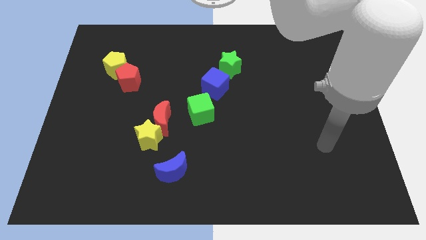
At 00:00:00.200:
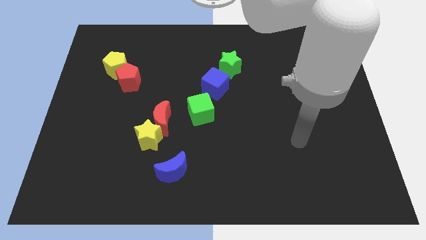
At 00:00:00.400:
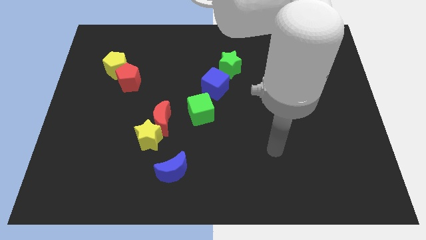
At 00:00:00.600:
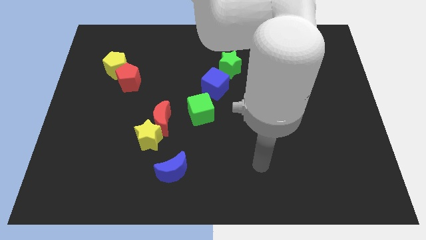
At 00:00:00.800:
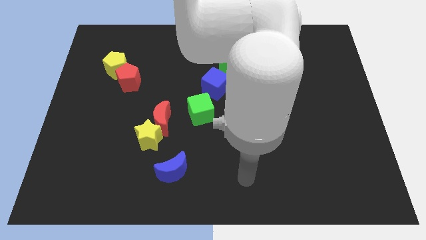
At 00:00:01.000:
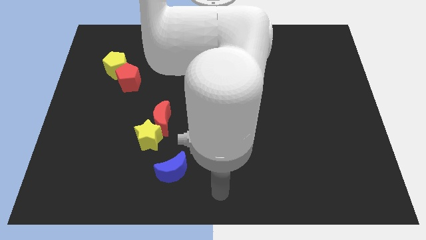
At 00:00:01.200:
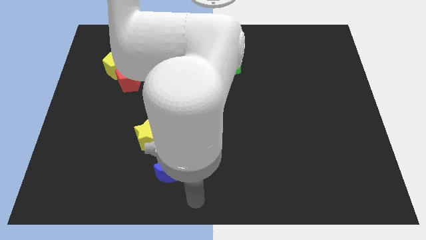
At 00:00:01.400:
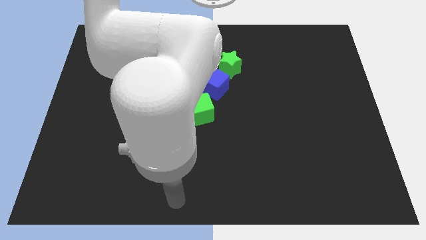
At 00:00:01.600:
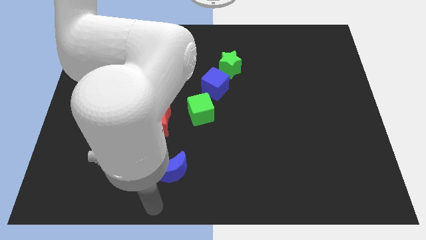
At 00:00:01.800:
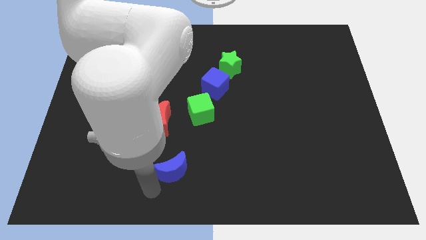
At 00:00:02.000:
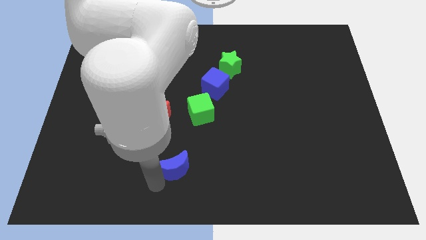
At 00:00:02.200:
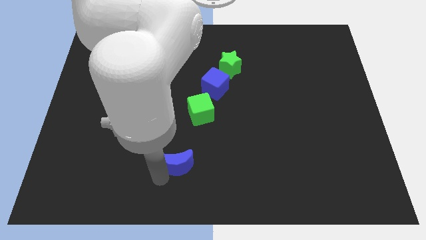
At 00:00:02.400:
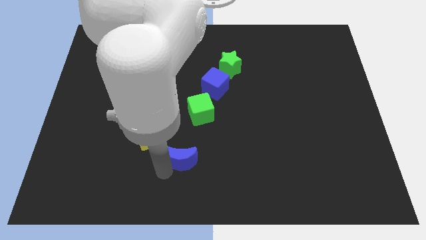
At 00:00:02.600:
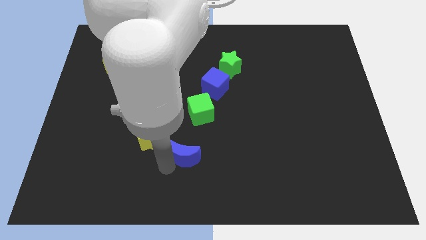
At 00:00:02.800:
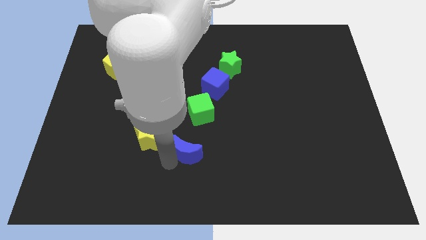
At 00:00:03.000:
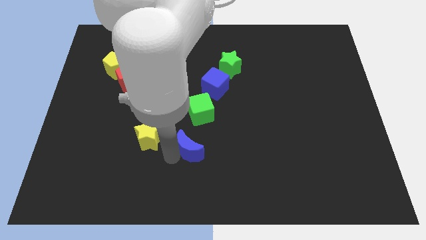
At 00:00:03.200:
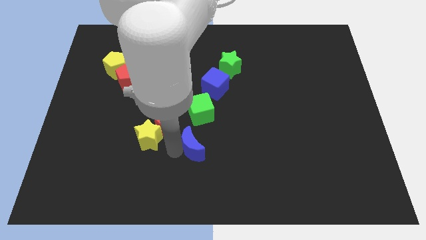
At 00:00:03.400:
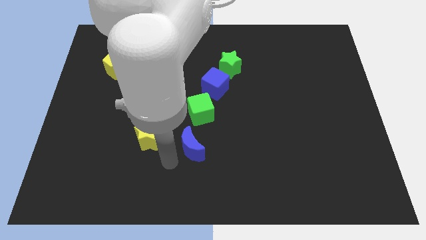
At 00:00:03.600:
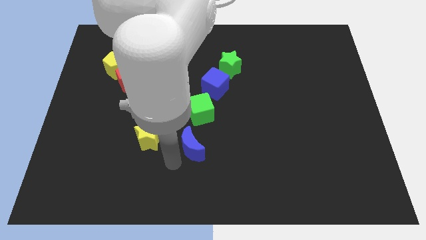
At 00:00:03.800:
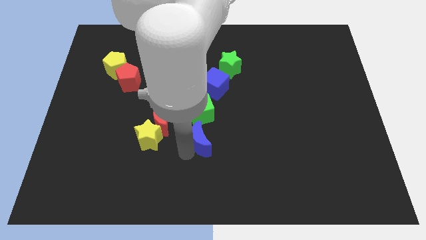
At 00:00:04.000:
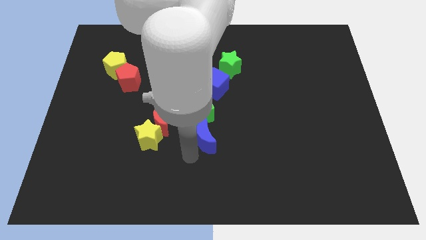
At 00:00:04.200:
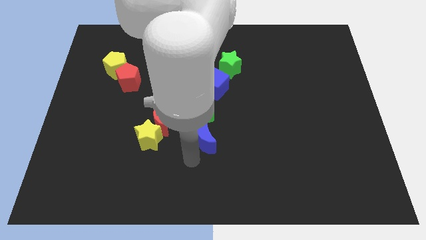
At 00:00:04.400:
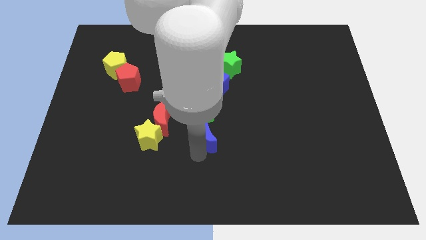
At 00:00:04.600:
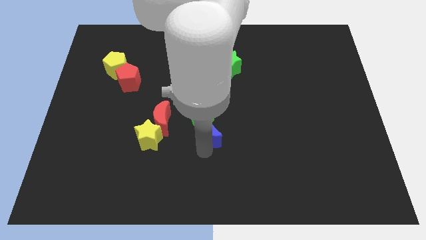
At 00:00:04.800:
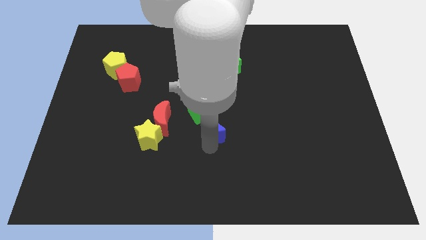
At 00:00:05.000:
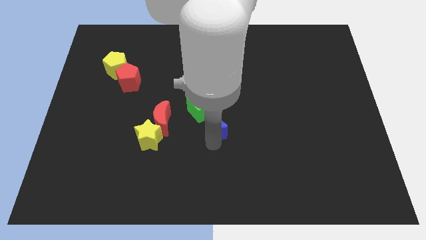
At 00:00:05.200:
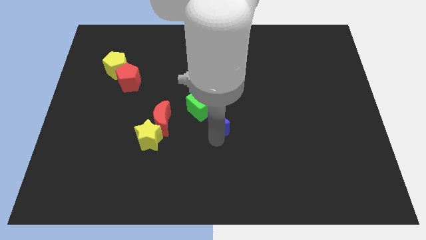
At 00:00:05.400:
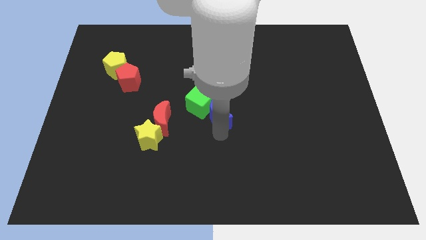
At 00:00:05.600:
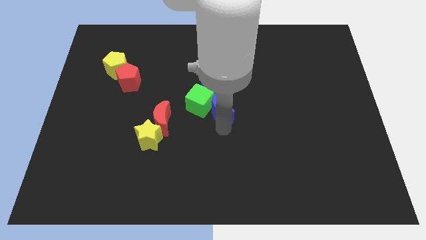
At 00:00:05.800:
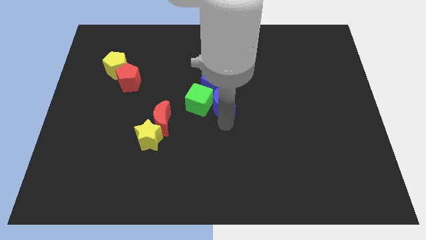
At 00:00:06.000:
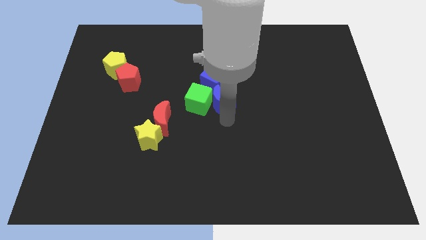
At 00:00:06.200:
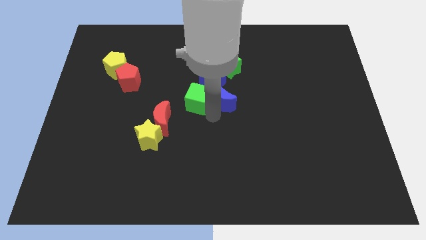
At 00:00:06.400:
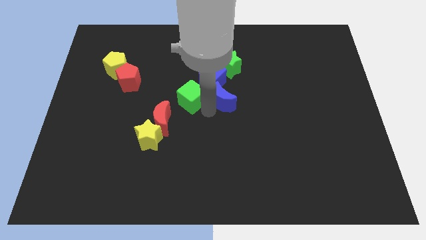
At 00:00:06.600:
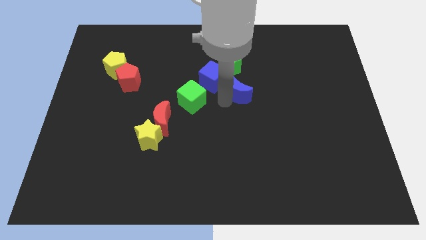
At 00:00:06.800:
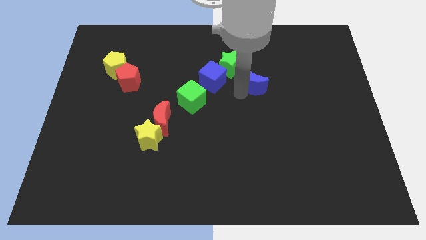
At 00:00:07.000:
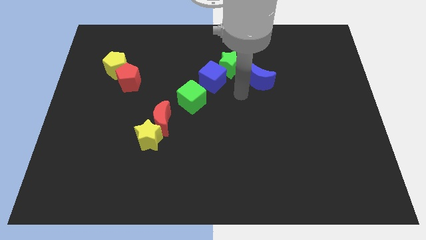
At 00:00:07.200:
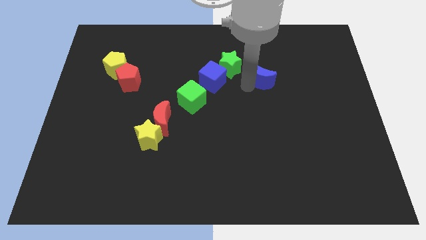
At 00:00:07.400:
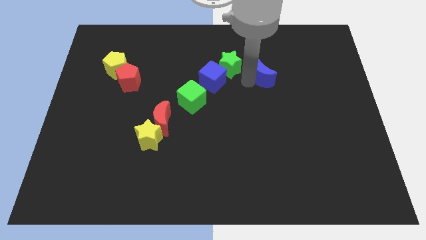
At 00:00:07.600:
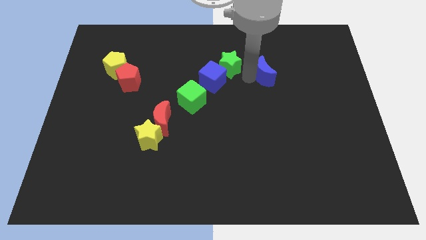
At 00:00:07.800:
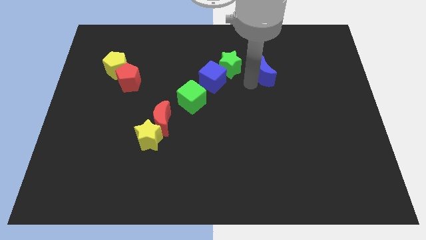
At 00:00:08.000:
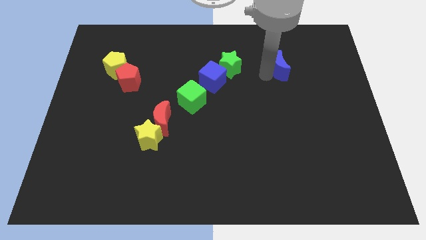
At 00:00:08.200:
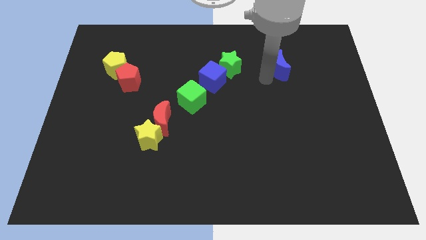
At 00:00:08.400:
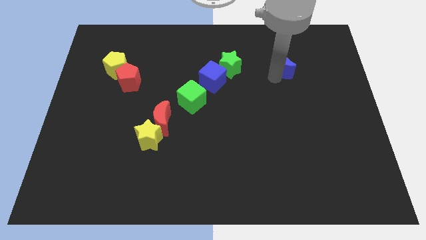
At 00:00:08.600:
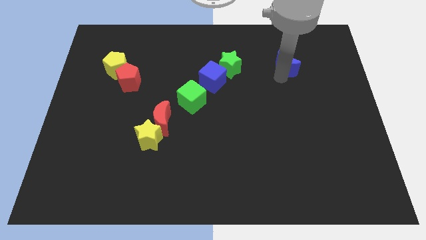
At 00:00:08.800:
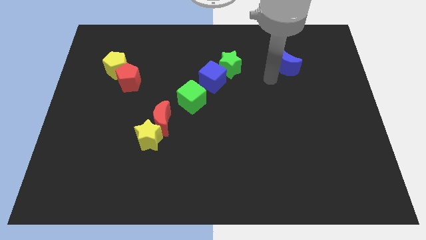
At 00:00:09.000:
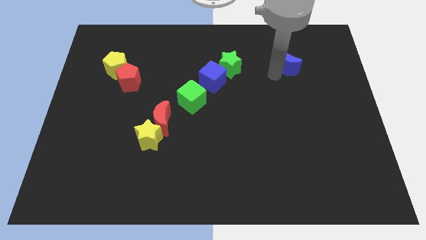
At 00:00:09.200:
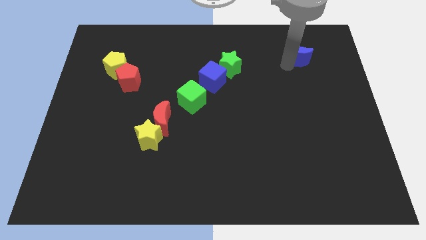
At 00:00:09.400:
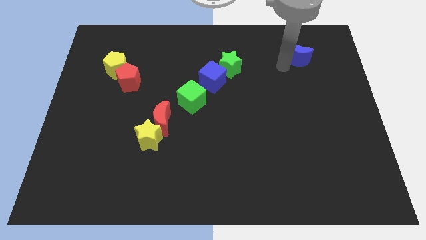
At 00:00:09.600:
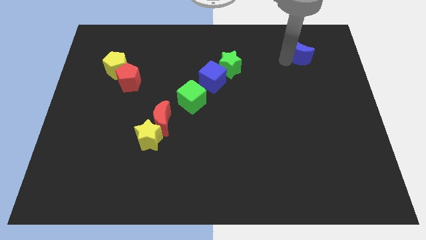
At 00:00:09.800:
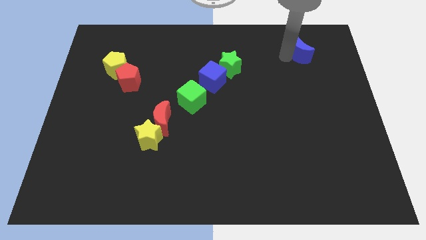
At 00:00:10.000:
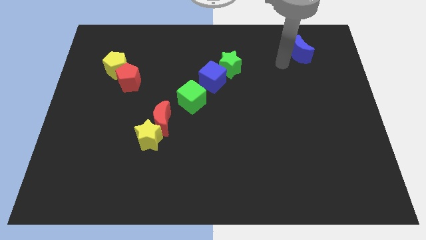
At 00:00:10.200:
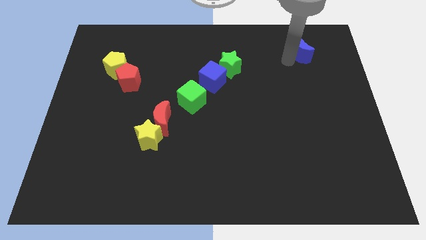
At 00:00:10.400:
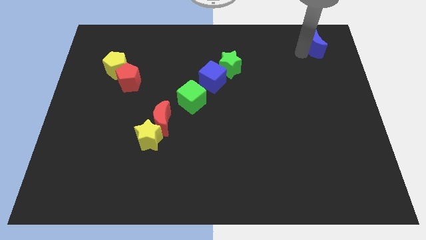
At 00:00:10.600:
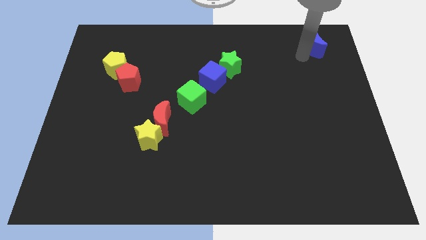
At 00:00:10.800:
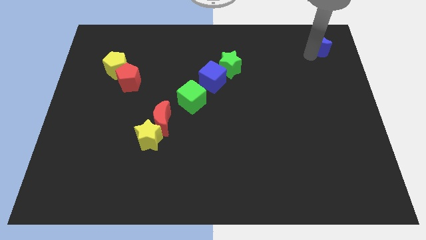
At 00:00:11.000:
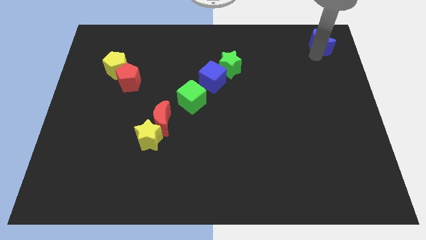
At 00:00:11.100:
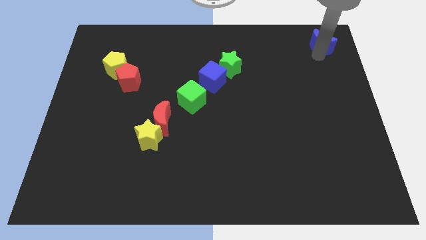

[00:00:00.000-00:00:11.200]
push the blue moon to the top right of the board
